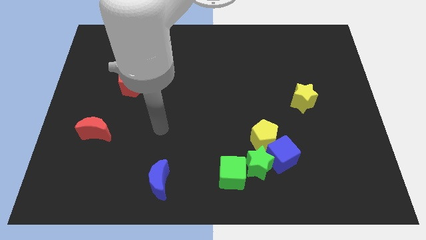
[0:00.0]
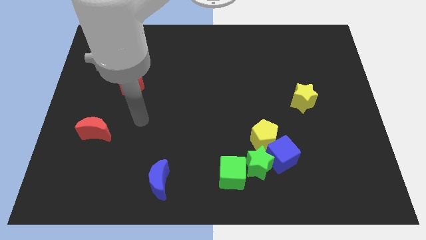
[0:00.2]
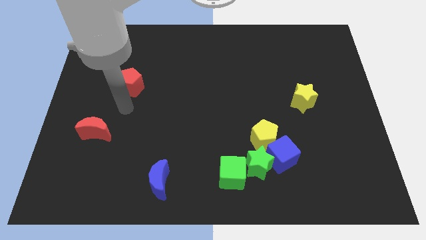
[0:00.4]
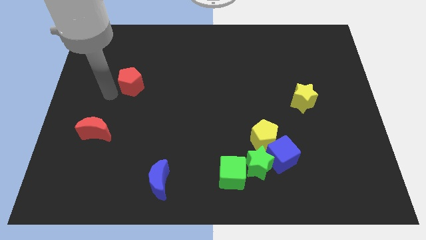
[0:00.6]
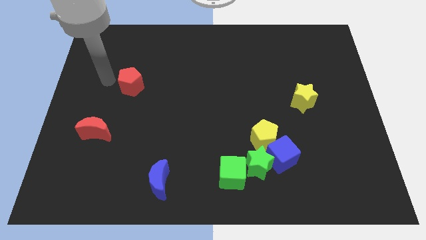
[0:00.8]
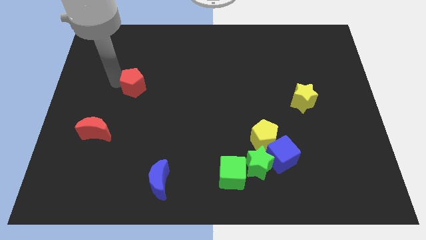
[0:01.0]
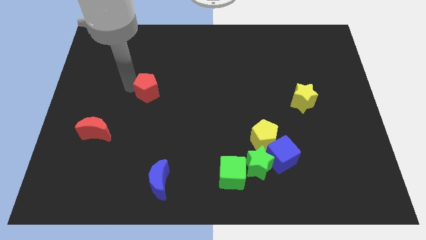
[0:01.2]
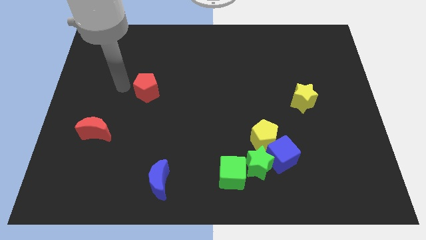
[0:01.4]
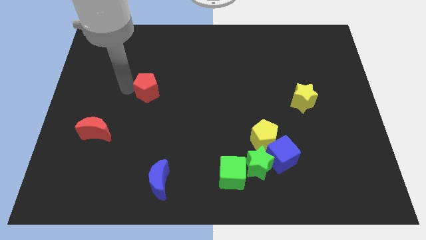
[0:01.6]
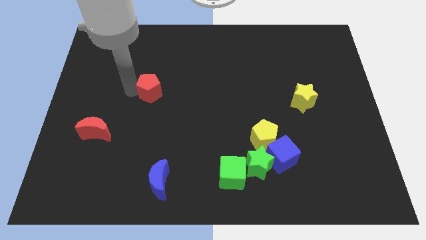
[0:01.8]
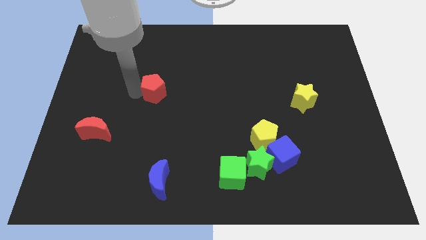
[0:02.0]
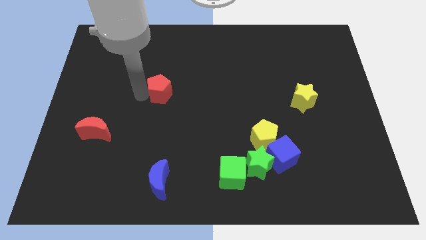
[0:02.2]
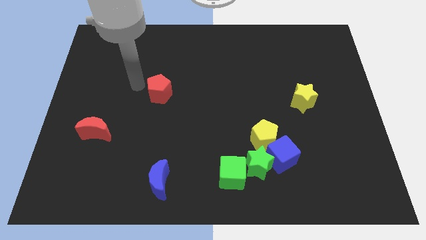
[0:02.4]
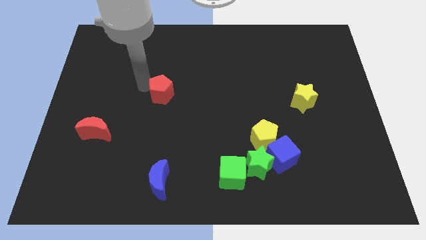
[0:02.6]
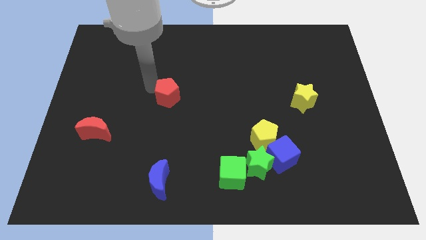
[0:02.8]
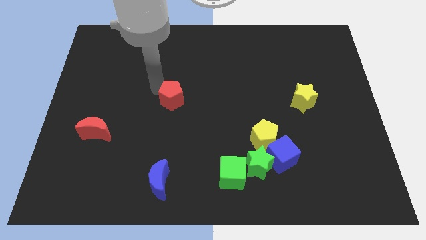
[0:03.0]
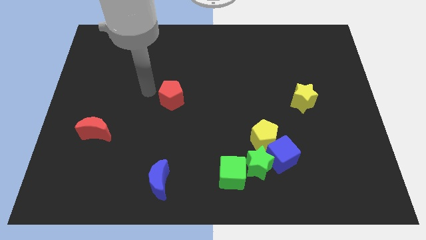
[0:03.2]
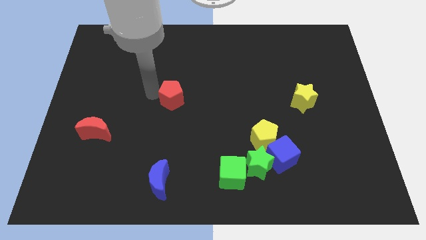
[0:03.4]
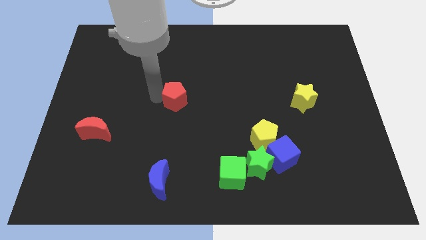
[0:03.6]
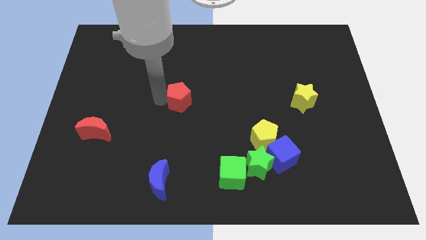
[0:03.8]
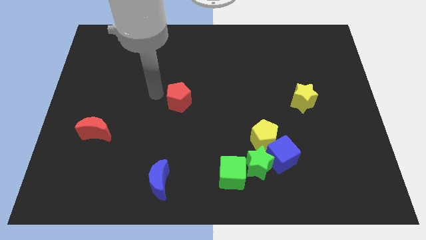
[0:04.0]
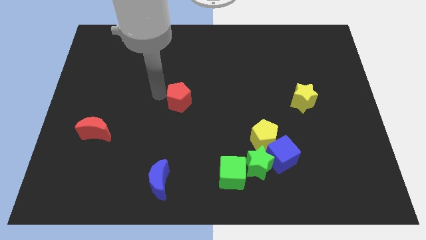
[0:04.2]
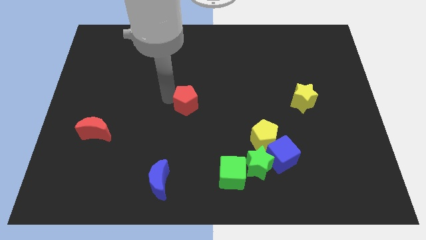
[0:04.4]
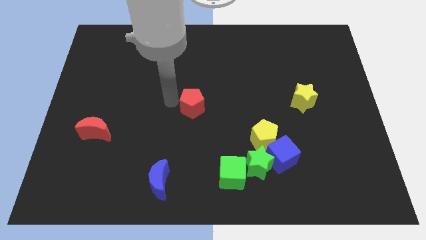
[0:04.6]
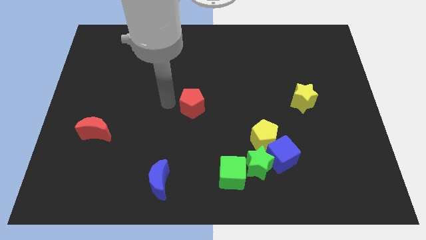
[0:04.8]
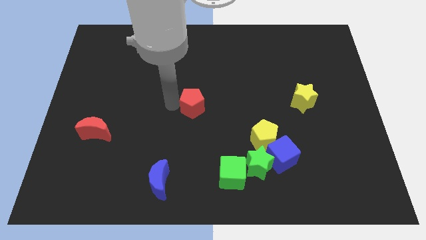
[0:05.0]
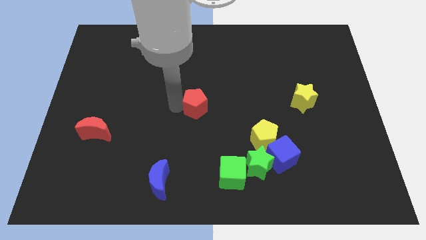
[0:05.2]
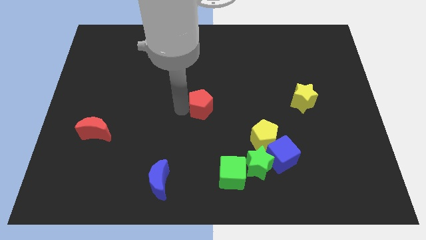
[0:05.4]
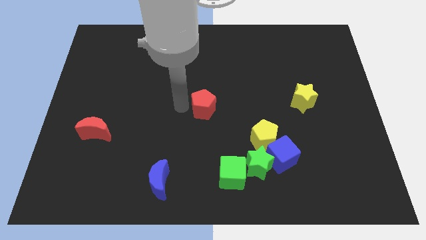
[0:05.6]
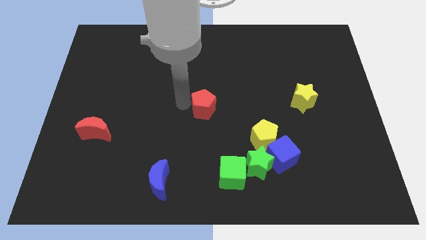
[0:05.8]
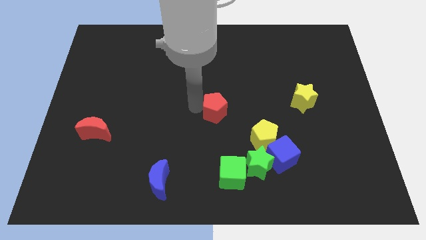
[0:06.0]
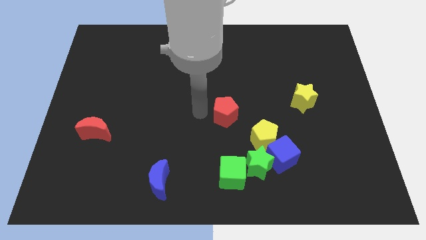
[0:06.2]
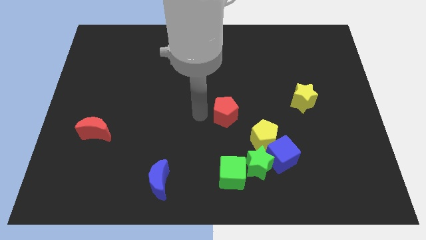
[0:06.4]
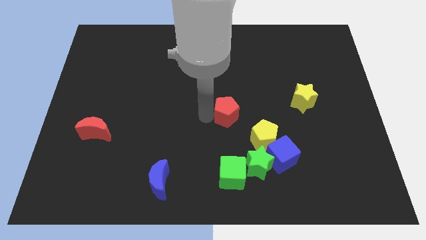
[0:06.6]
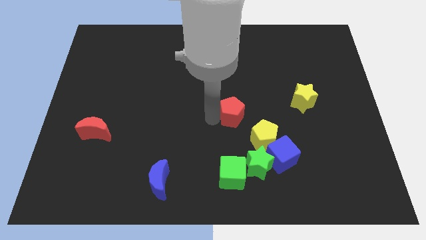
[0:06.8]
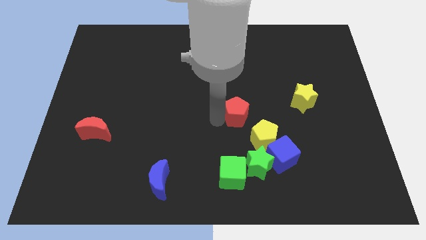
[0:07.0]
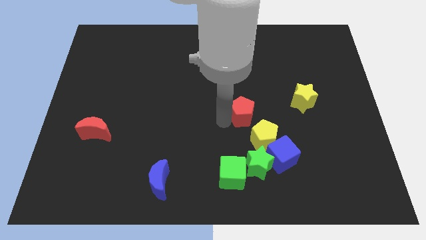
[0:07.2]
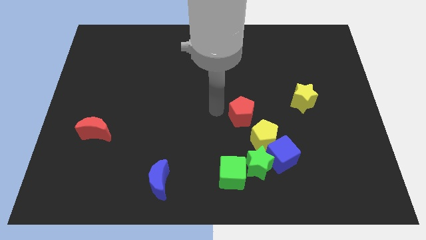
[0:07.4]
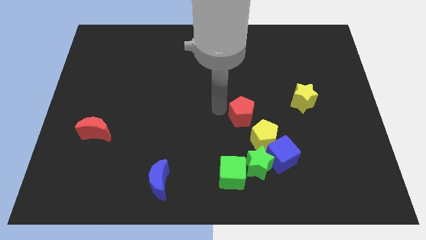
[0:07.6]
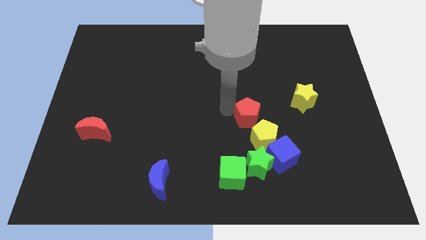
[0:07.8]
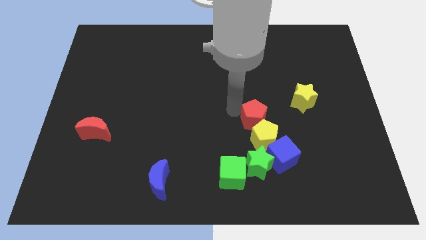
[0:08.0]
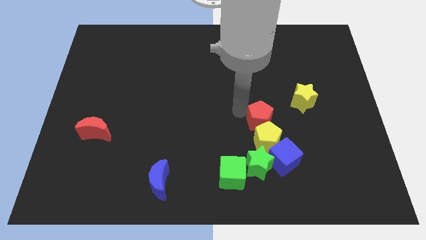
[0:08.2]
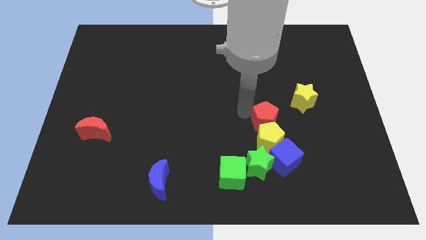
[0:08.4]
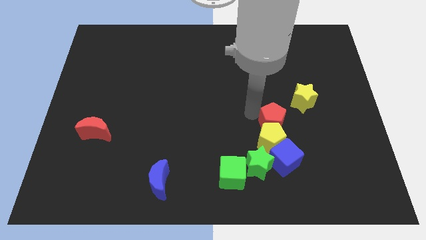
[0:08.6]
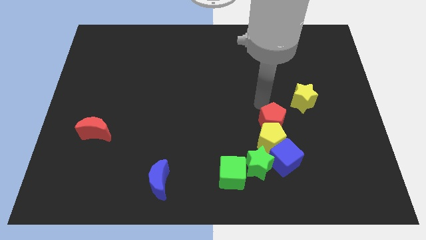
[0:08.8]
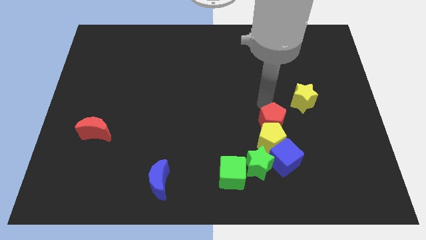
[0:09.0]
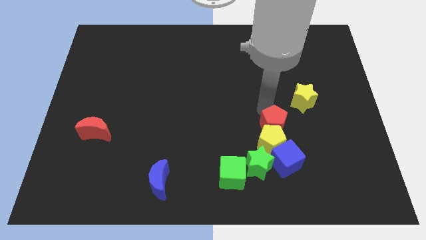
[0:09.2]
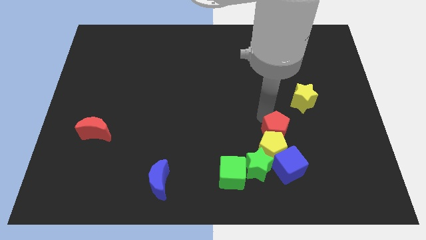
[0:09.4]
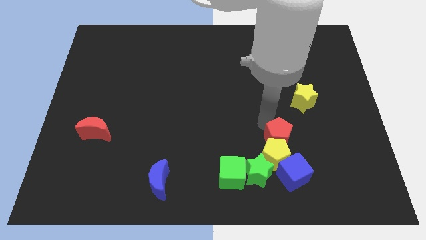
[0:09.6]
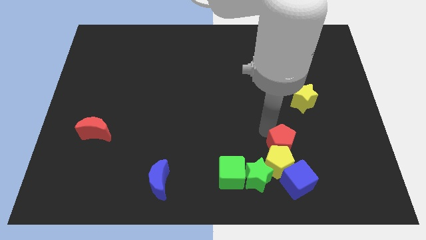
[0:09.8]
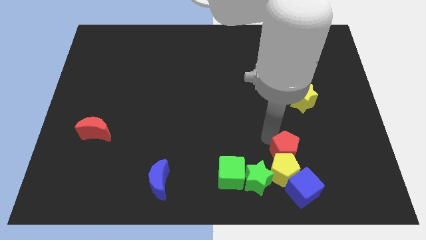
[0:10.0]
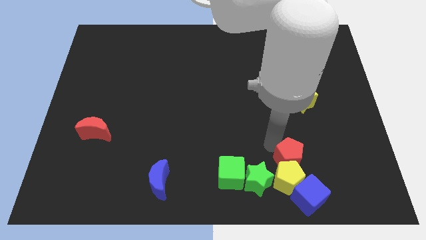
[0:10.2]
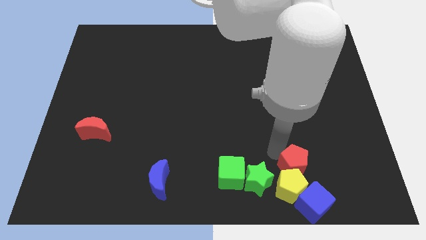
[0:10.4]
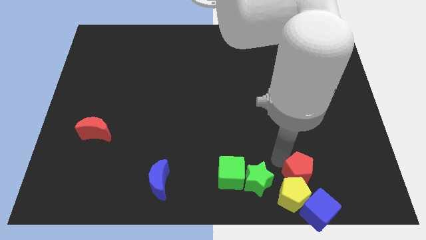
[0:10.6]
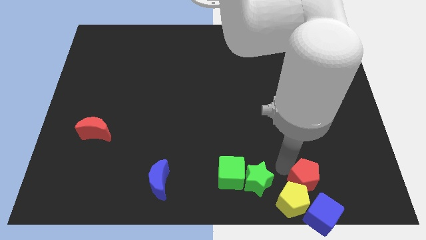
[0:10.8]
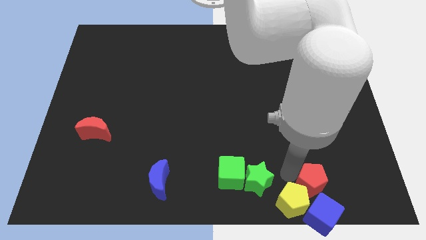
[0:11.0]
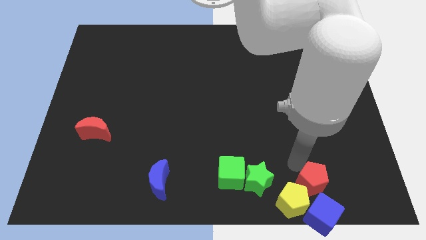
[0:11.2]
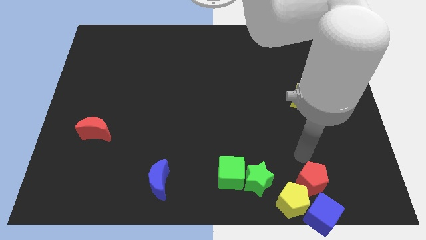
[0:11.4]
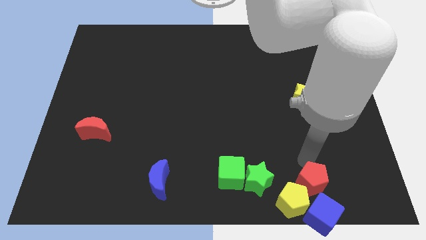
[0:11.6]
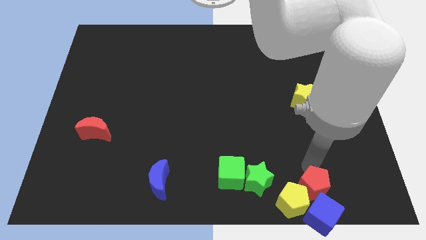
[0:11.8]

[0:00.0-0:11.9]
put the red pentagon towards the blue cube

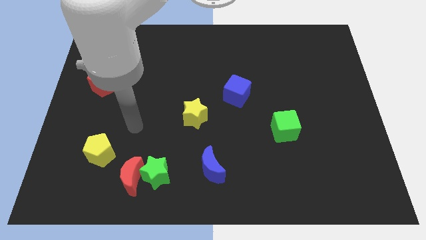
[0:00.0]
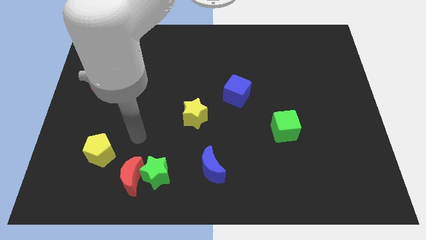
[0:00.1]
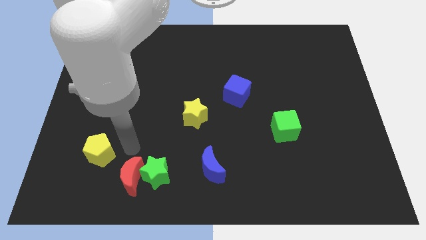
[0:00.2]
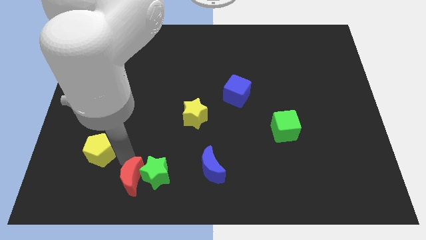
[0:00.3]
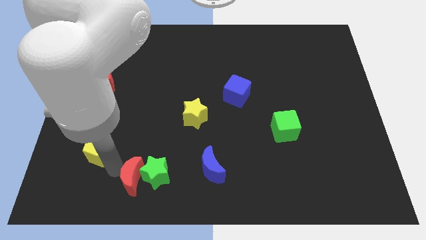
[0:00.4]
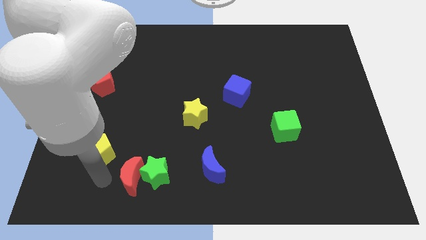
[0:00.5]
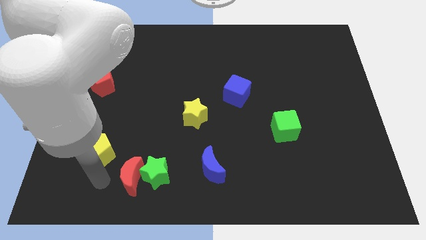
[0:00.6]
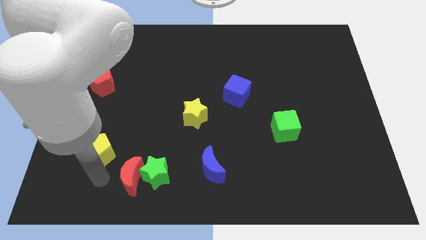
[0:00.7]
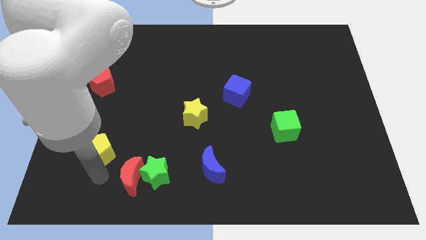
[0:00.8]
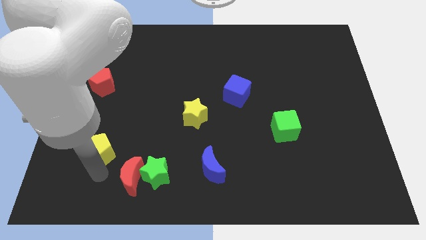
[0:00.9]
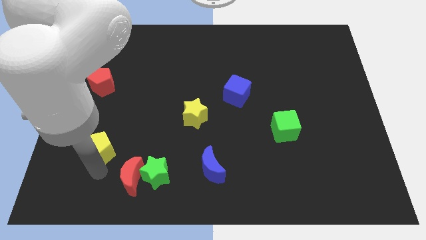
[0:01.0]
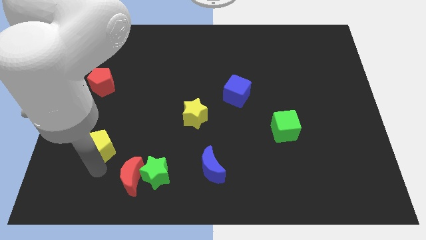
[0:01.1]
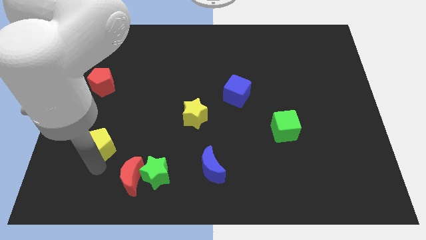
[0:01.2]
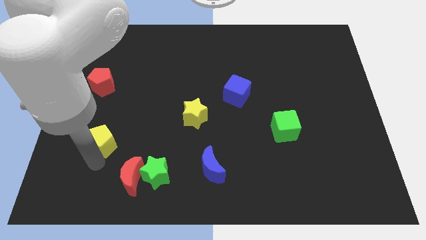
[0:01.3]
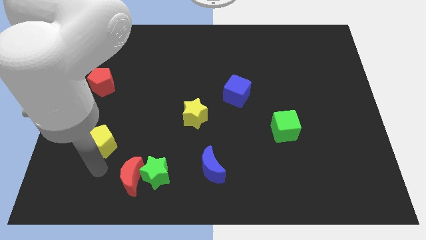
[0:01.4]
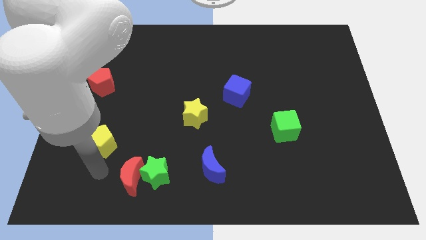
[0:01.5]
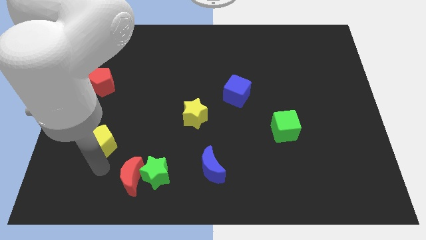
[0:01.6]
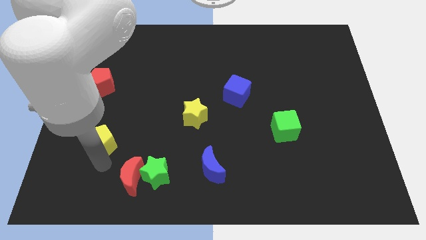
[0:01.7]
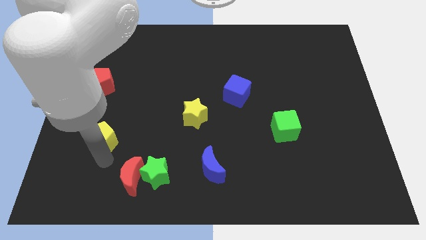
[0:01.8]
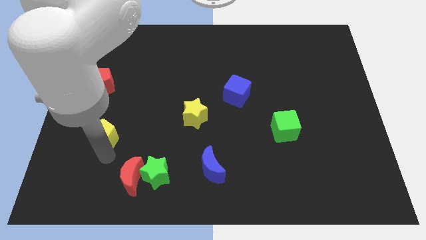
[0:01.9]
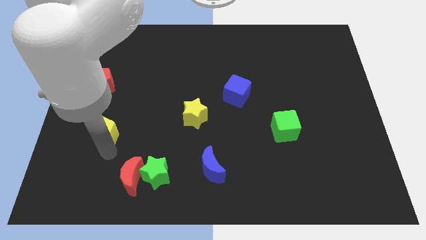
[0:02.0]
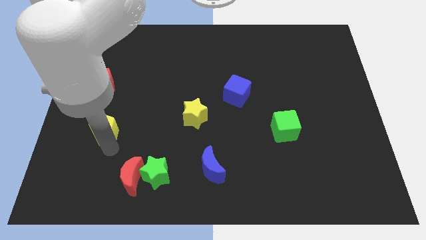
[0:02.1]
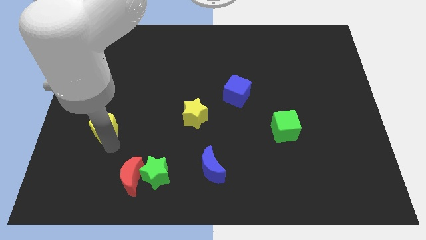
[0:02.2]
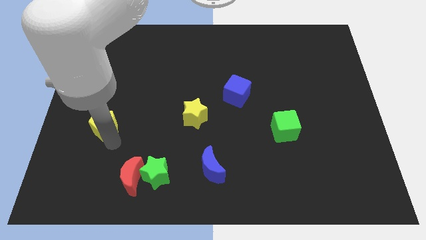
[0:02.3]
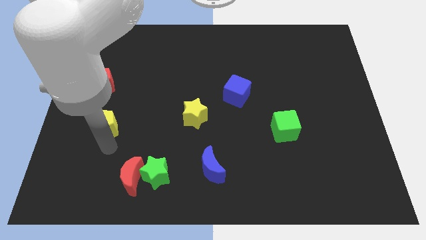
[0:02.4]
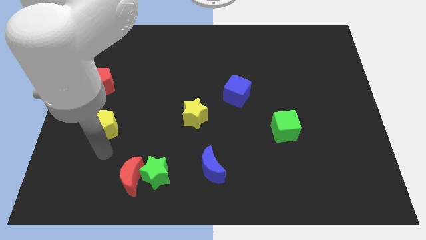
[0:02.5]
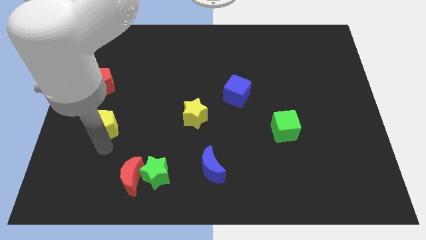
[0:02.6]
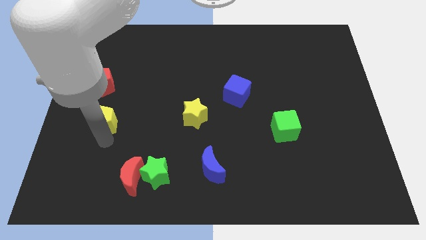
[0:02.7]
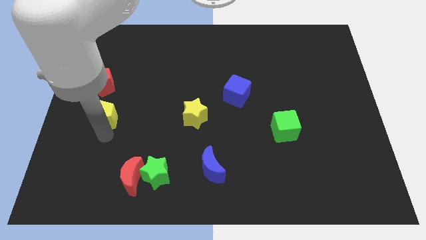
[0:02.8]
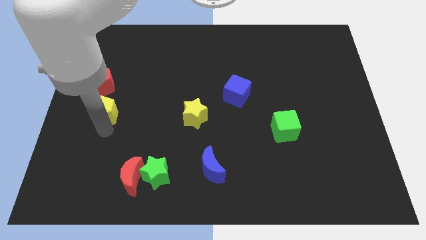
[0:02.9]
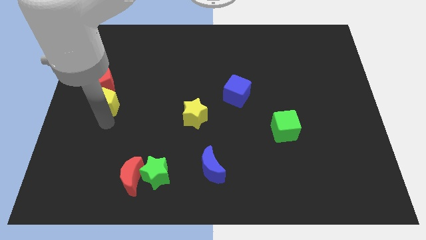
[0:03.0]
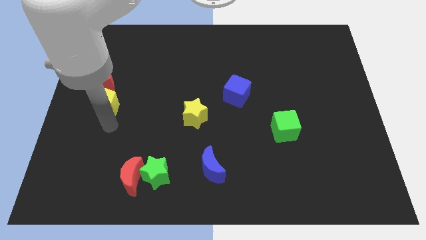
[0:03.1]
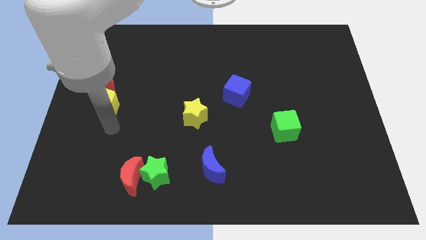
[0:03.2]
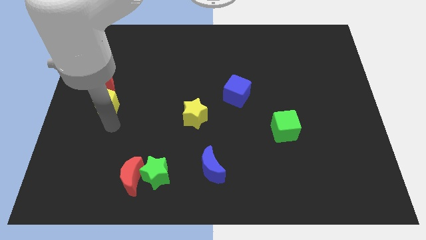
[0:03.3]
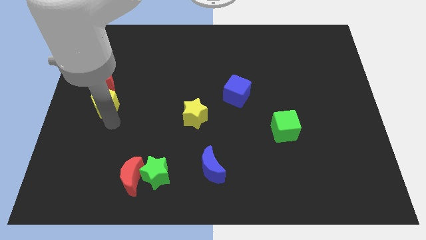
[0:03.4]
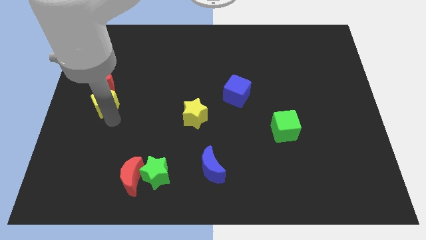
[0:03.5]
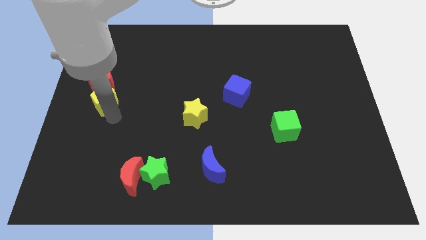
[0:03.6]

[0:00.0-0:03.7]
put the yellow pentagon to the red pentagon
